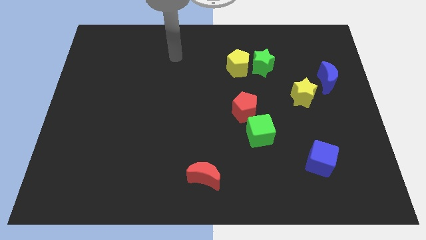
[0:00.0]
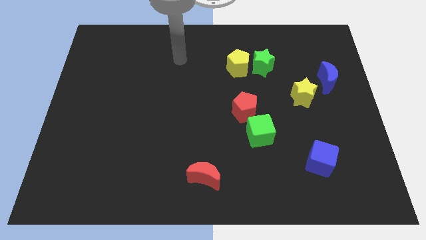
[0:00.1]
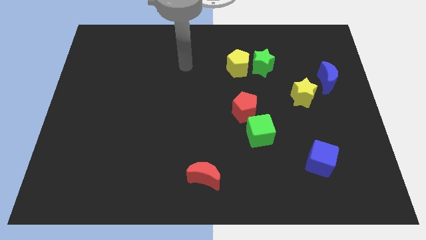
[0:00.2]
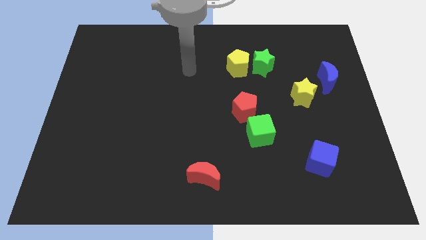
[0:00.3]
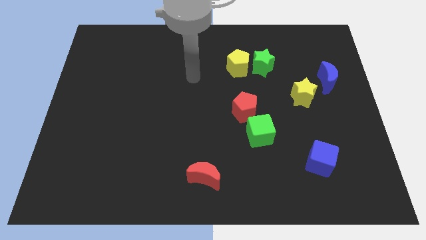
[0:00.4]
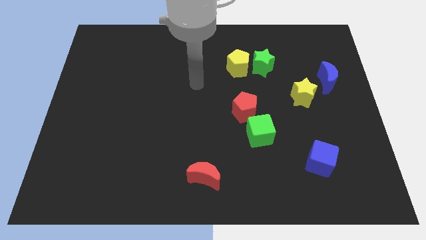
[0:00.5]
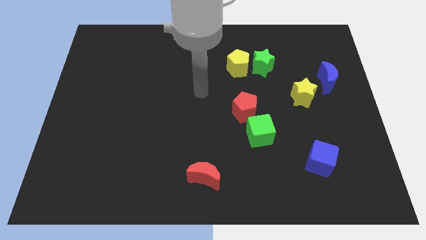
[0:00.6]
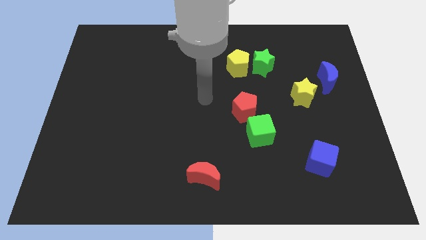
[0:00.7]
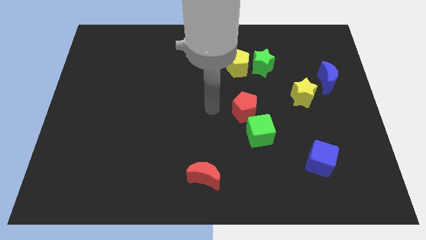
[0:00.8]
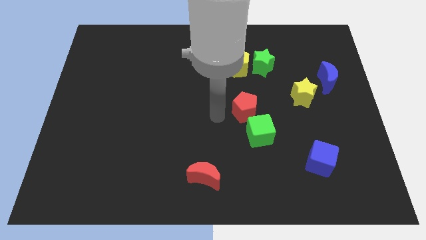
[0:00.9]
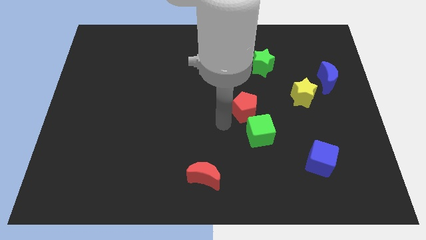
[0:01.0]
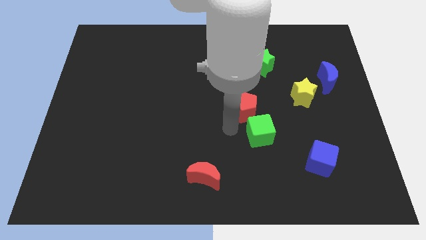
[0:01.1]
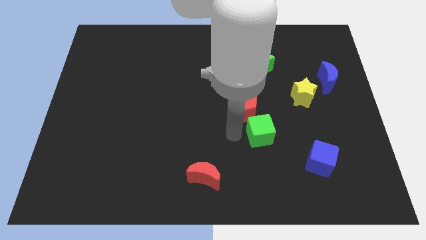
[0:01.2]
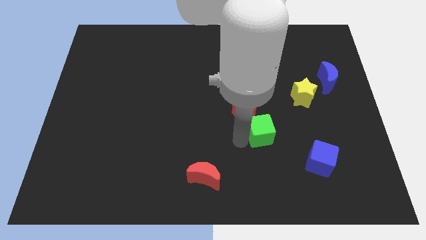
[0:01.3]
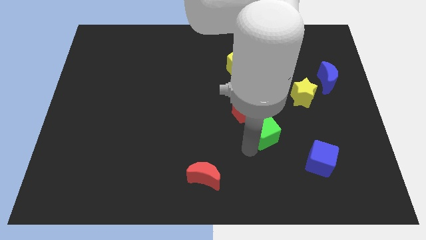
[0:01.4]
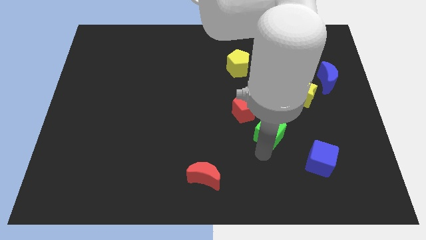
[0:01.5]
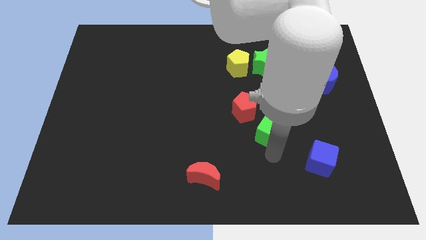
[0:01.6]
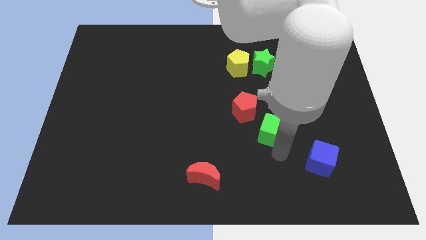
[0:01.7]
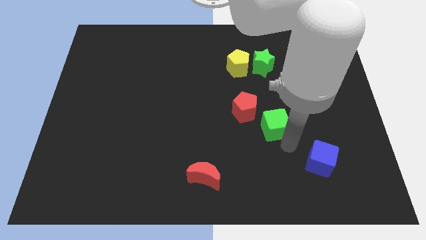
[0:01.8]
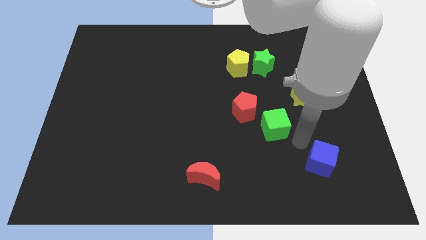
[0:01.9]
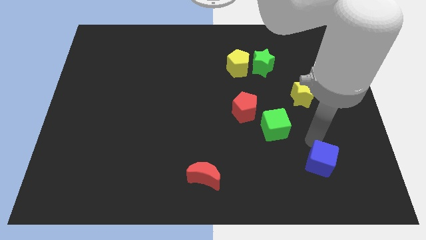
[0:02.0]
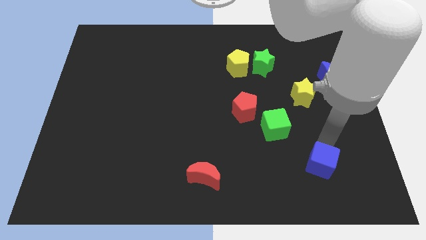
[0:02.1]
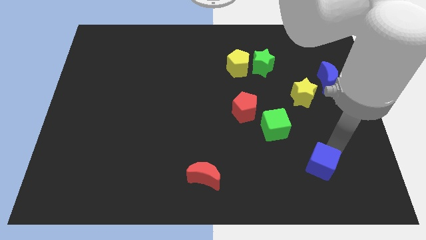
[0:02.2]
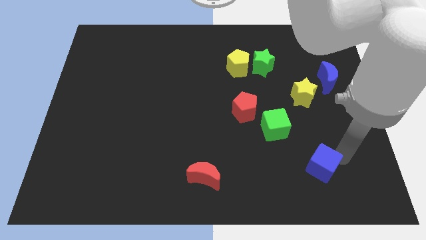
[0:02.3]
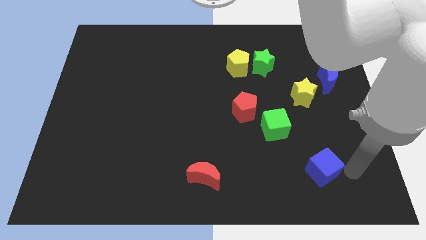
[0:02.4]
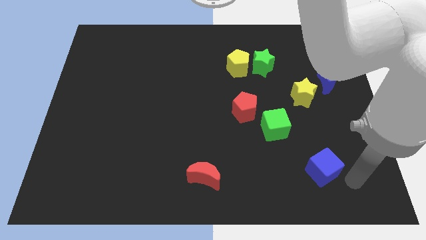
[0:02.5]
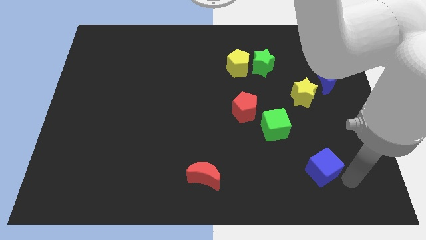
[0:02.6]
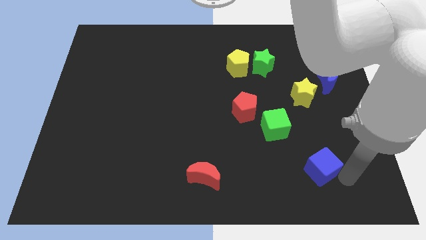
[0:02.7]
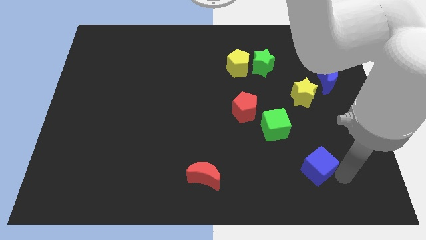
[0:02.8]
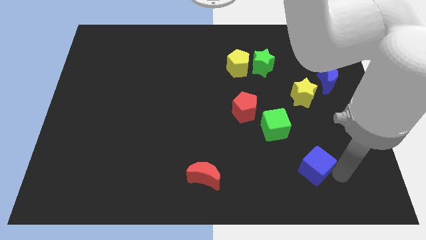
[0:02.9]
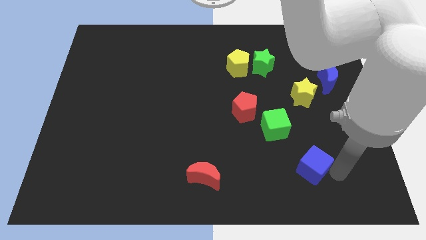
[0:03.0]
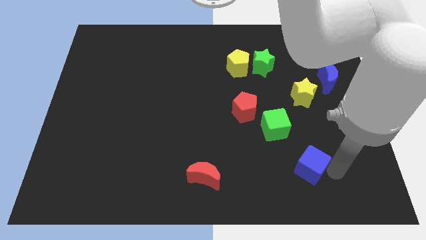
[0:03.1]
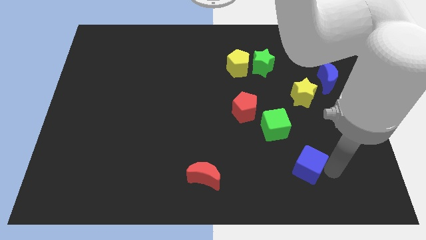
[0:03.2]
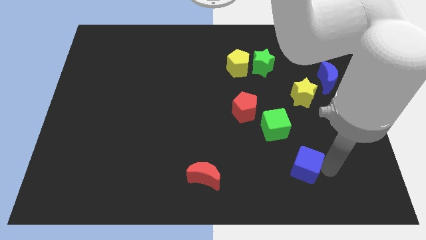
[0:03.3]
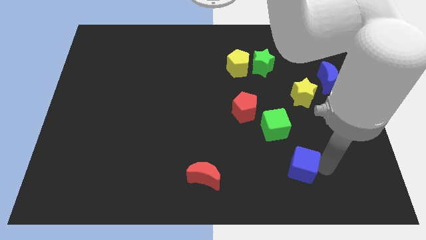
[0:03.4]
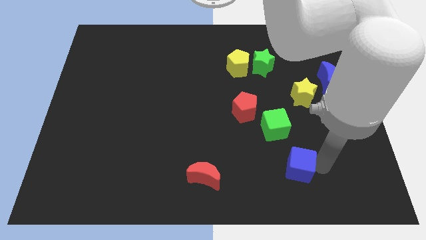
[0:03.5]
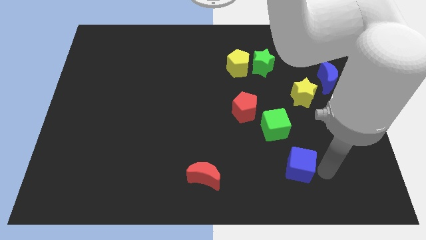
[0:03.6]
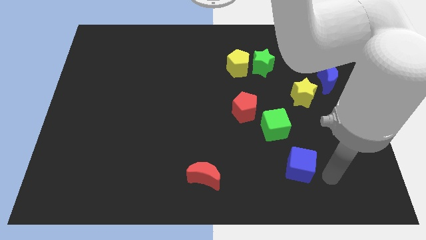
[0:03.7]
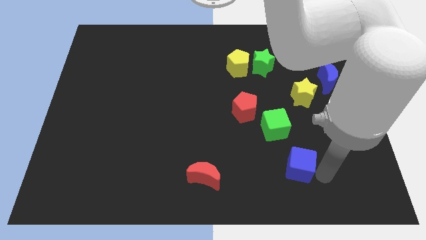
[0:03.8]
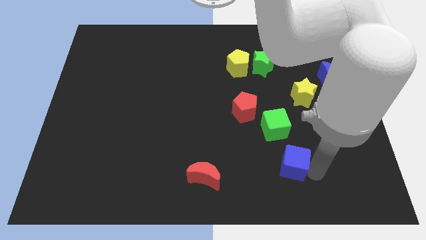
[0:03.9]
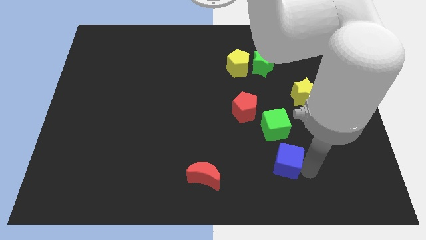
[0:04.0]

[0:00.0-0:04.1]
move the blue cube slightly left

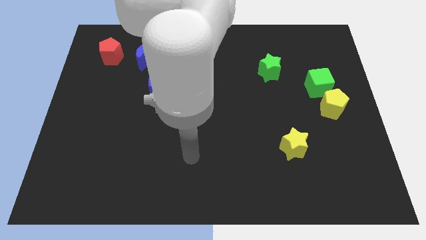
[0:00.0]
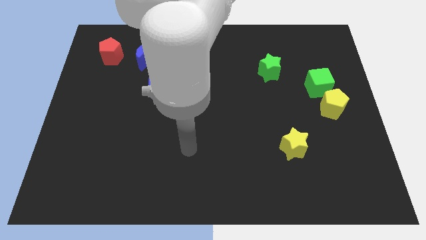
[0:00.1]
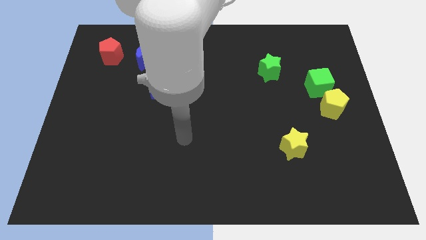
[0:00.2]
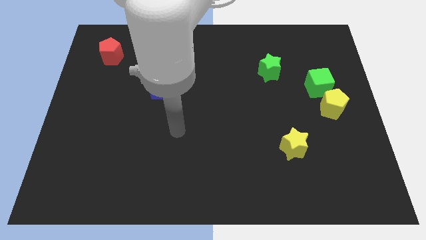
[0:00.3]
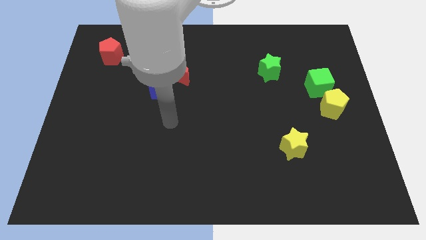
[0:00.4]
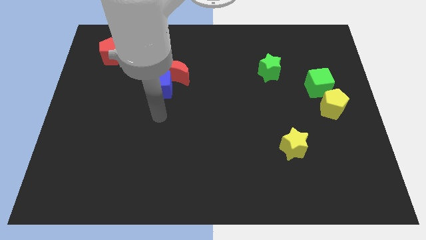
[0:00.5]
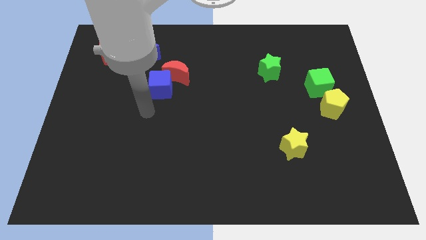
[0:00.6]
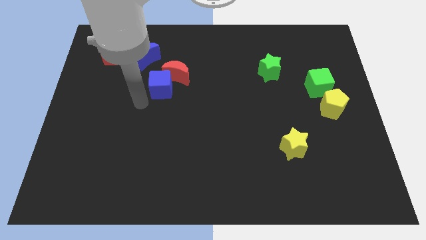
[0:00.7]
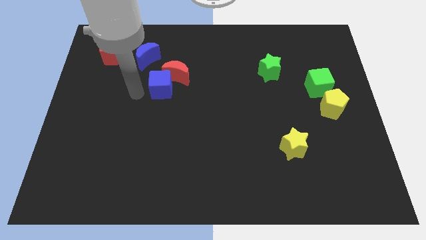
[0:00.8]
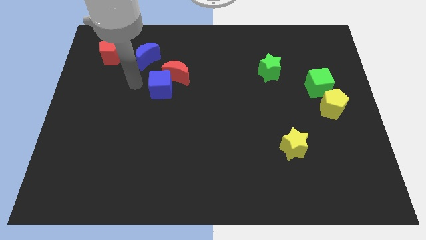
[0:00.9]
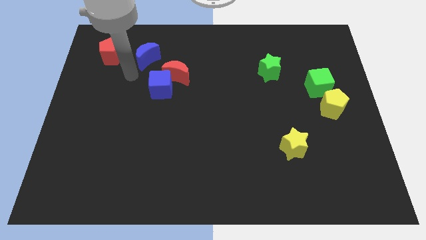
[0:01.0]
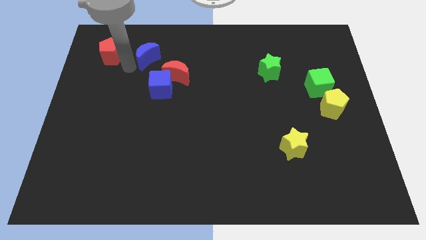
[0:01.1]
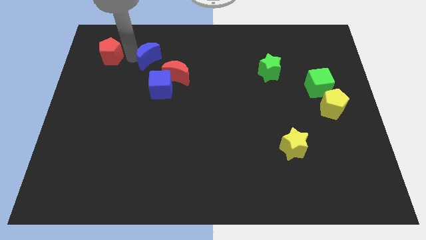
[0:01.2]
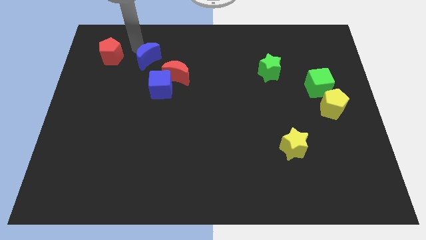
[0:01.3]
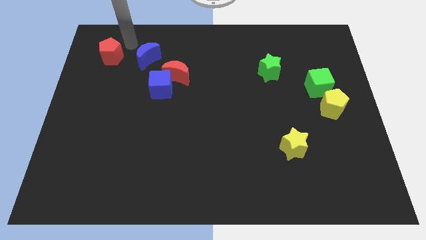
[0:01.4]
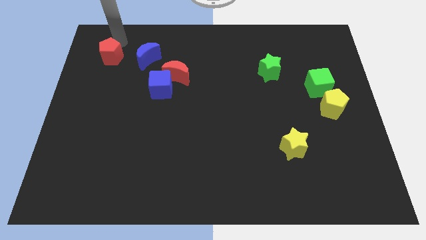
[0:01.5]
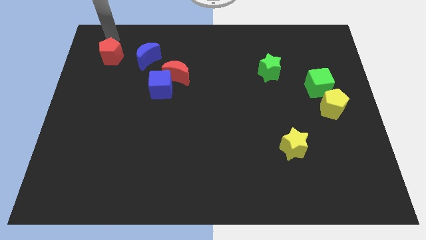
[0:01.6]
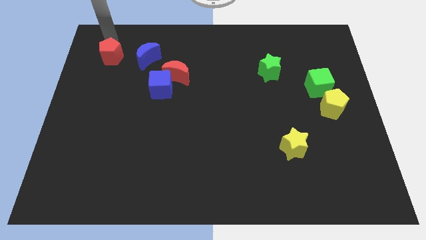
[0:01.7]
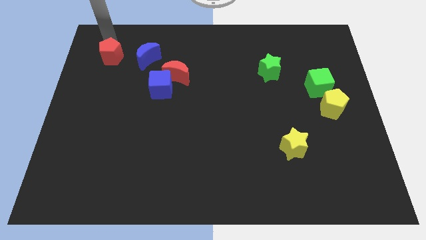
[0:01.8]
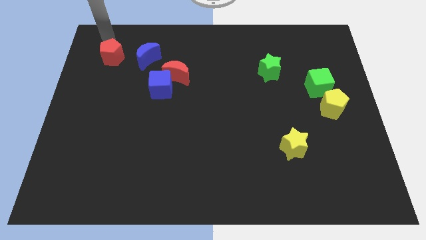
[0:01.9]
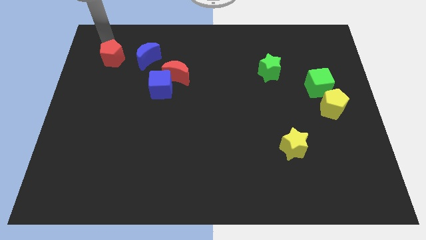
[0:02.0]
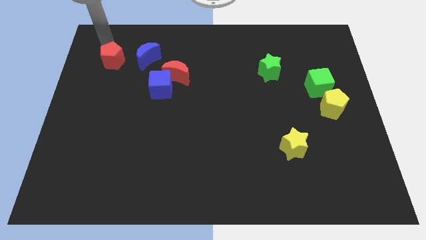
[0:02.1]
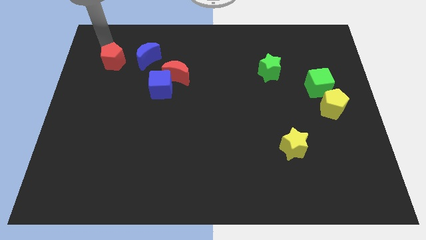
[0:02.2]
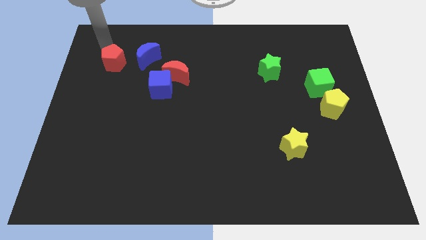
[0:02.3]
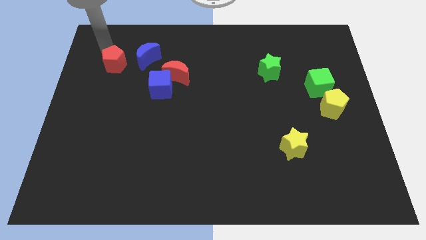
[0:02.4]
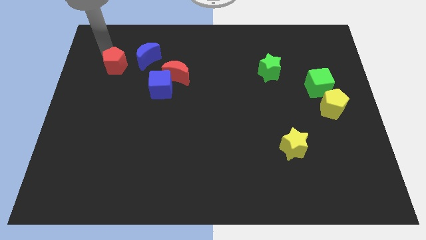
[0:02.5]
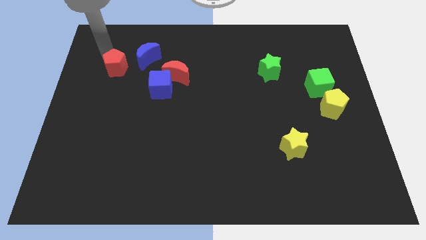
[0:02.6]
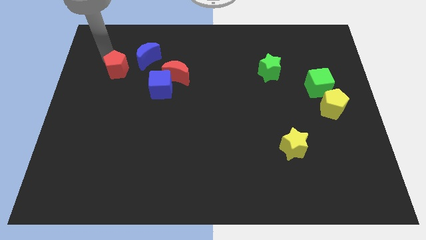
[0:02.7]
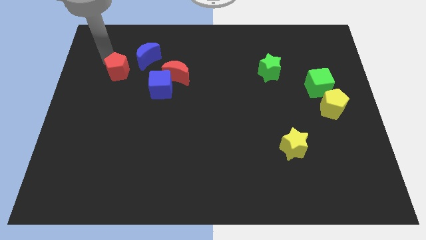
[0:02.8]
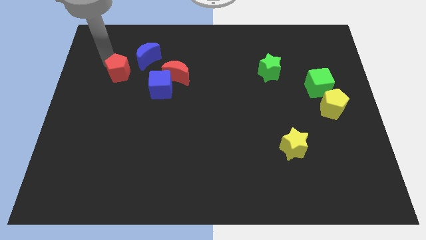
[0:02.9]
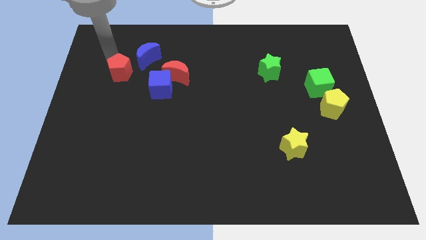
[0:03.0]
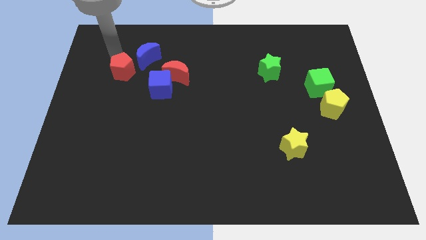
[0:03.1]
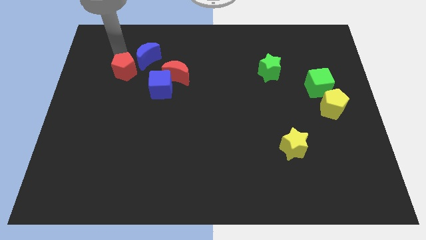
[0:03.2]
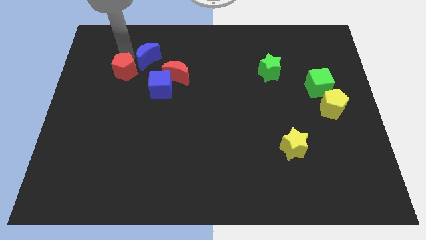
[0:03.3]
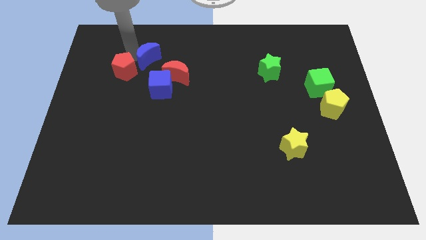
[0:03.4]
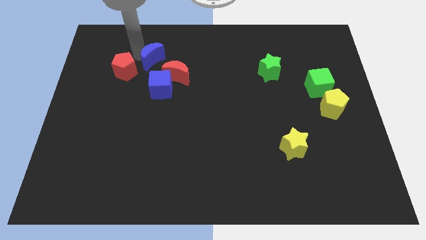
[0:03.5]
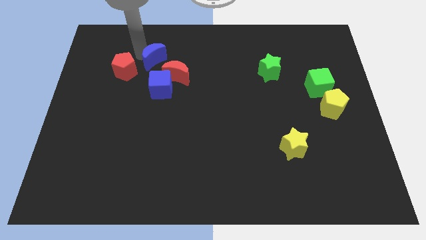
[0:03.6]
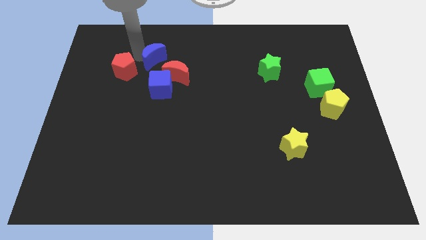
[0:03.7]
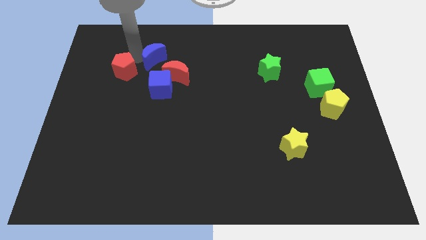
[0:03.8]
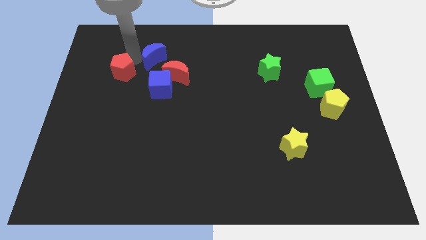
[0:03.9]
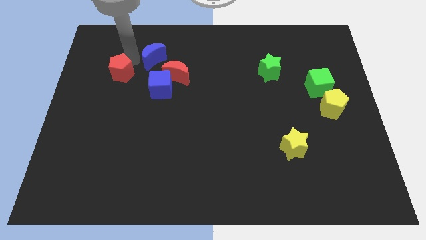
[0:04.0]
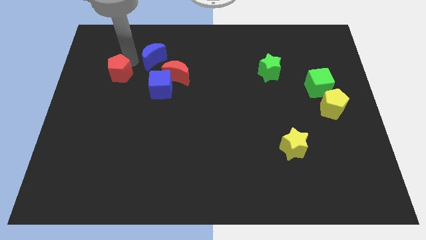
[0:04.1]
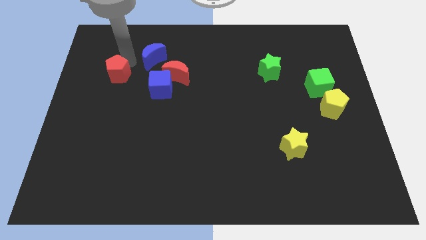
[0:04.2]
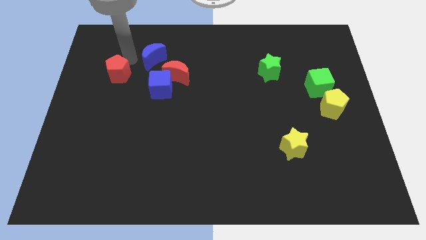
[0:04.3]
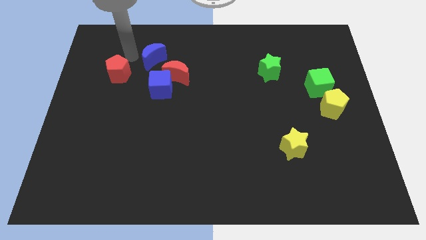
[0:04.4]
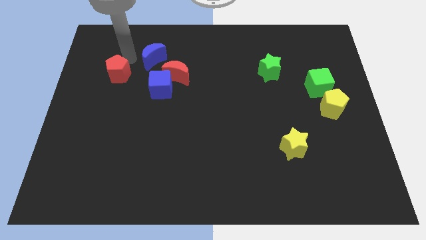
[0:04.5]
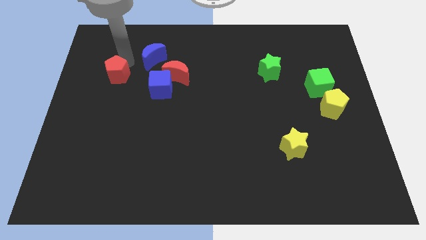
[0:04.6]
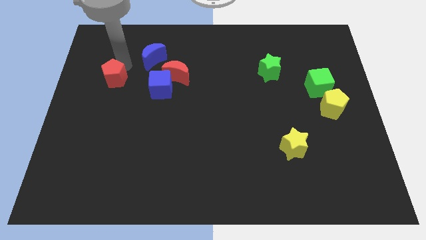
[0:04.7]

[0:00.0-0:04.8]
move the red pentagon down somewhat
